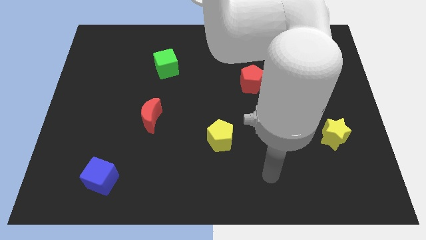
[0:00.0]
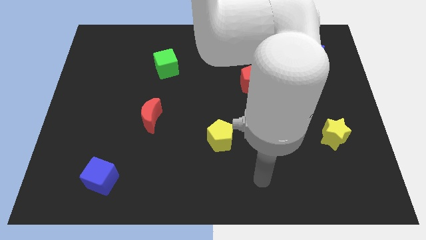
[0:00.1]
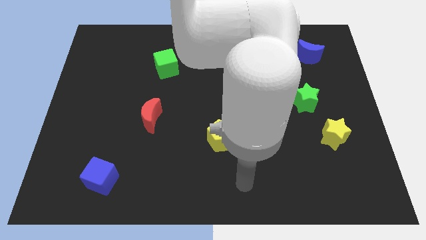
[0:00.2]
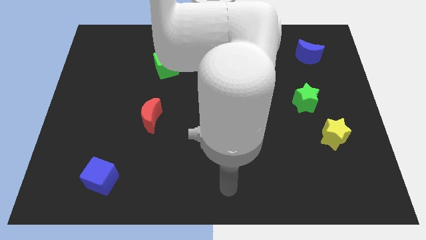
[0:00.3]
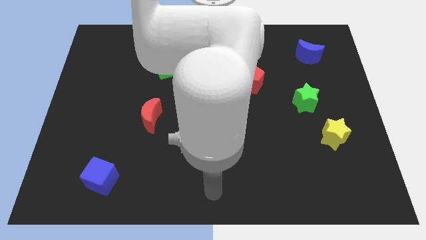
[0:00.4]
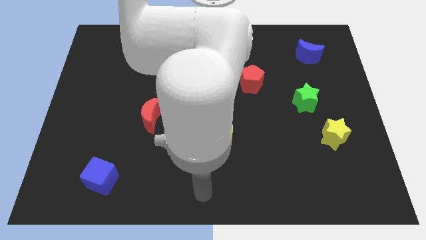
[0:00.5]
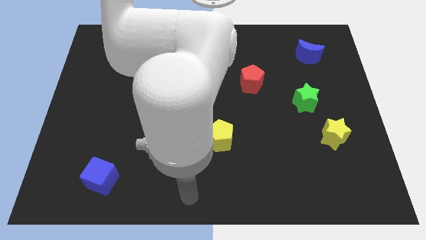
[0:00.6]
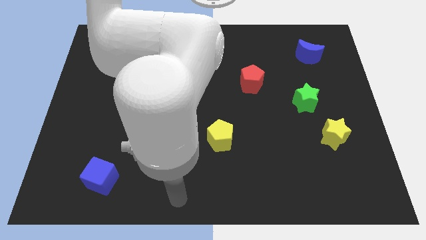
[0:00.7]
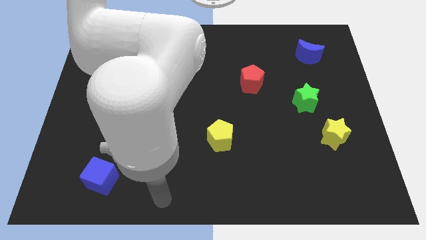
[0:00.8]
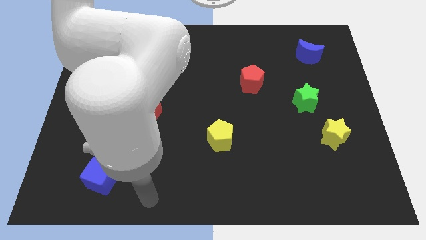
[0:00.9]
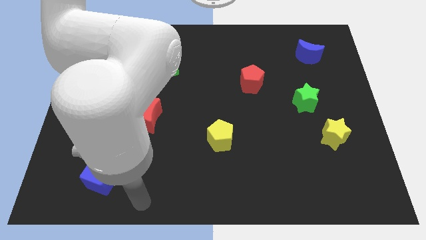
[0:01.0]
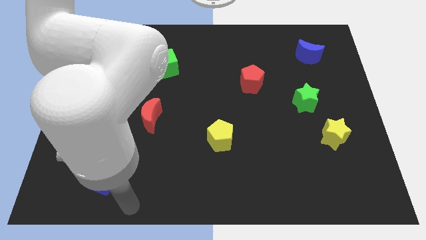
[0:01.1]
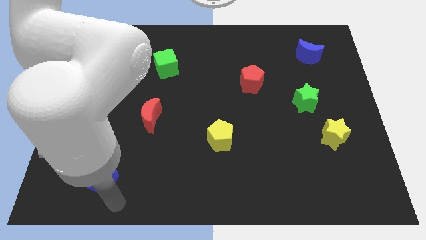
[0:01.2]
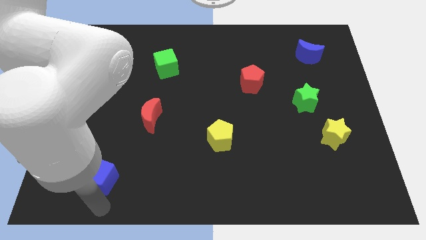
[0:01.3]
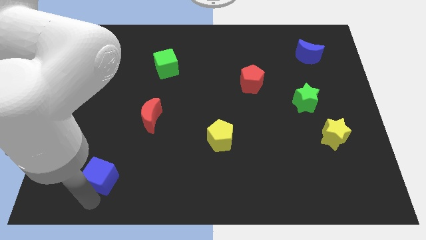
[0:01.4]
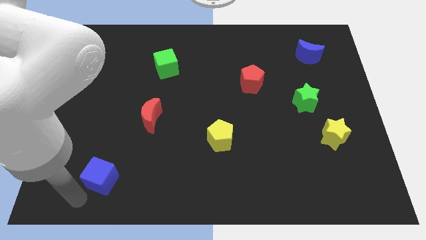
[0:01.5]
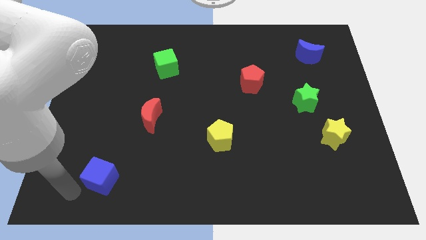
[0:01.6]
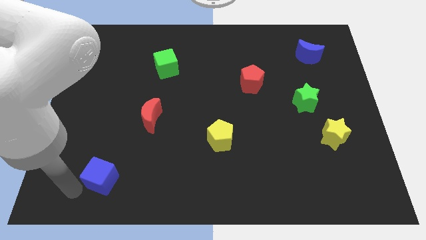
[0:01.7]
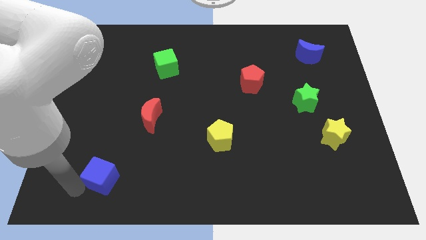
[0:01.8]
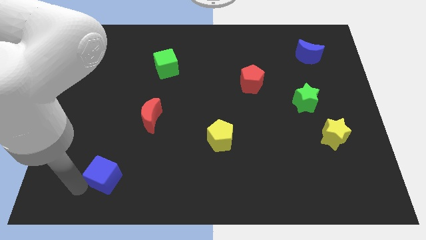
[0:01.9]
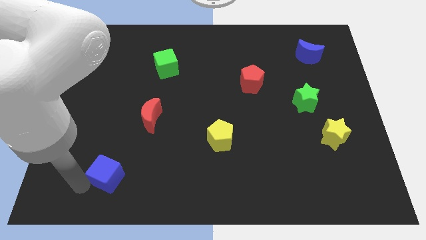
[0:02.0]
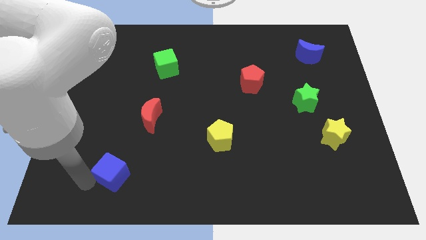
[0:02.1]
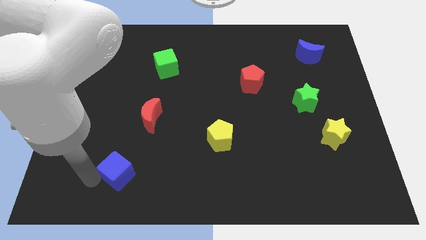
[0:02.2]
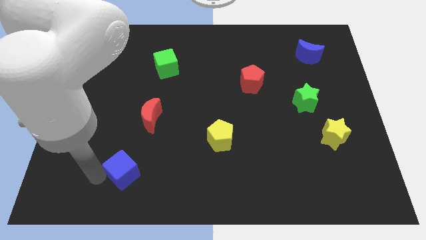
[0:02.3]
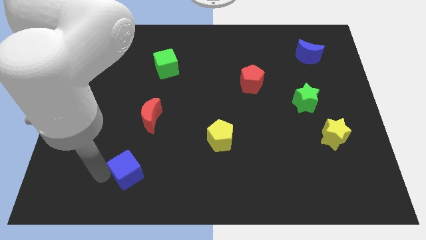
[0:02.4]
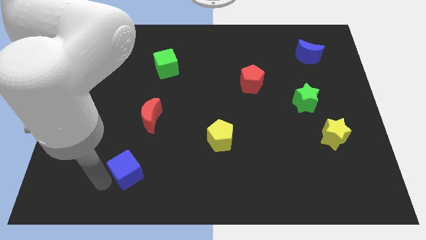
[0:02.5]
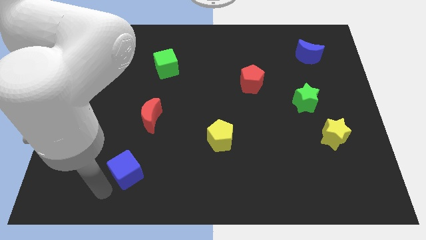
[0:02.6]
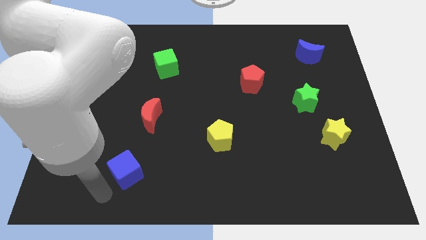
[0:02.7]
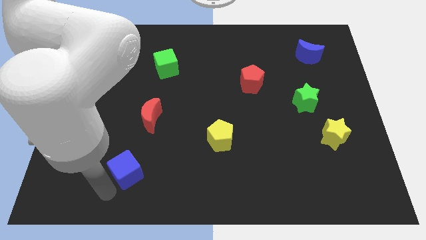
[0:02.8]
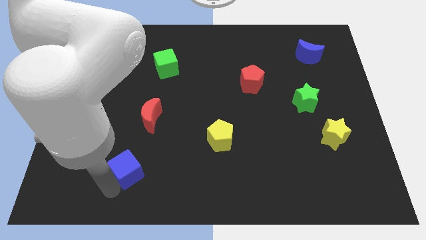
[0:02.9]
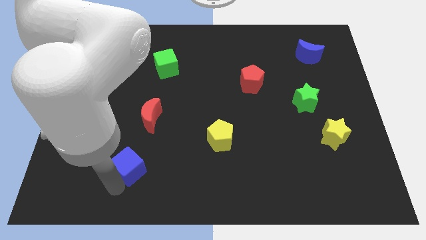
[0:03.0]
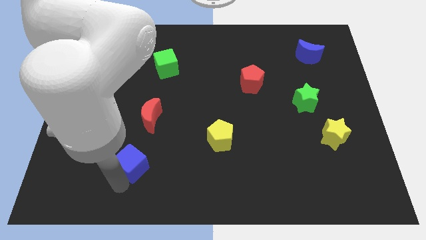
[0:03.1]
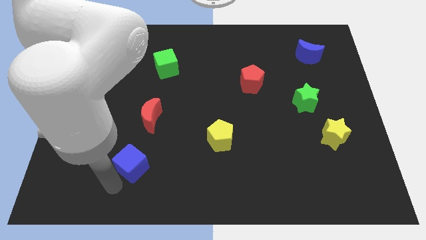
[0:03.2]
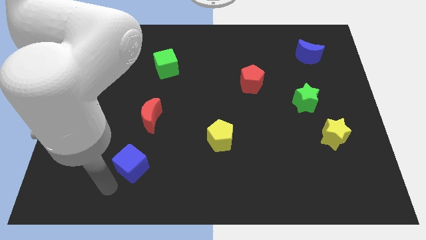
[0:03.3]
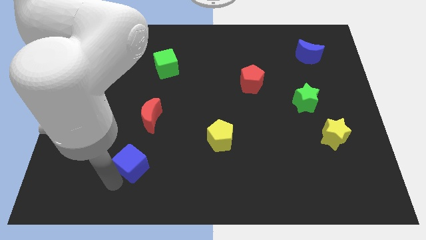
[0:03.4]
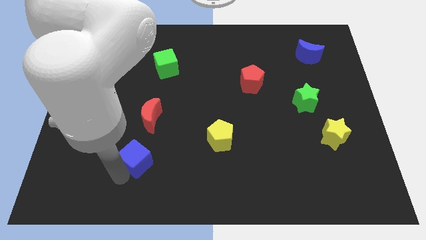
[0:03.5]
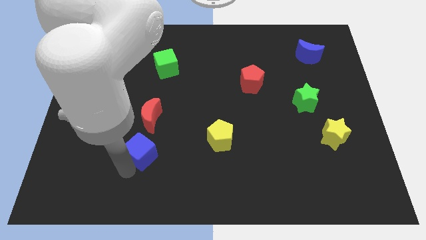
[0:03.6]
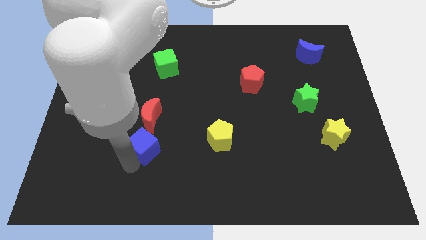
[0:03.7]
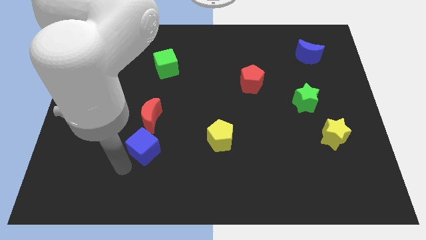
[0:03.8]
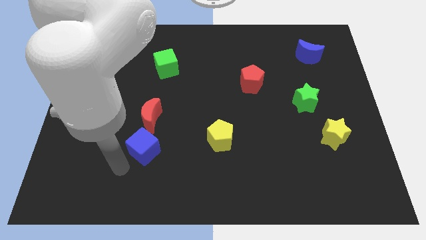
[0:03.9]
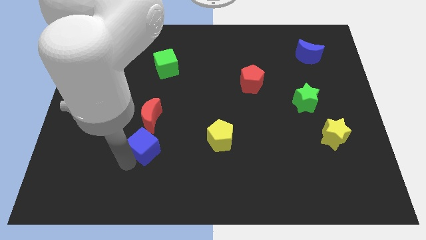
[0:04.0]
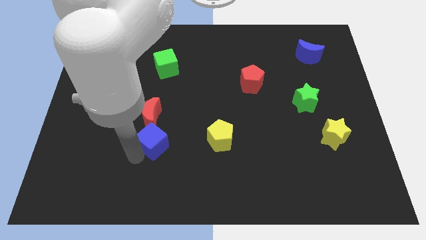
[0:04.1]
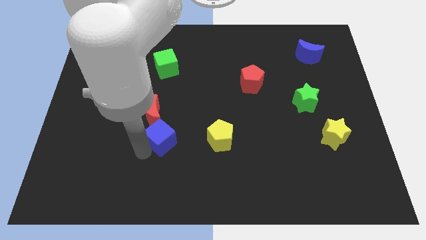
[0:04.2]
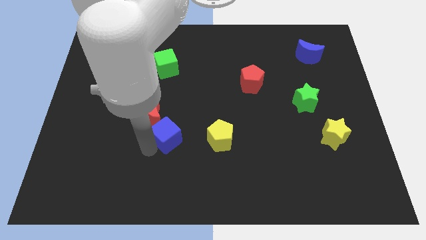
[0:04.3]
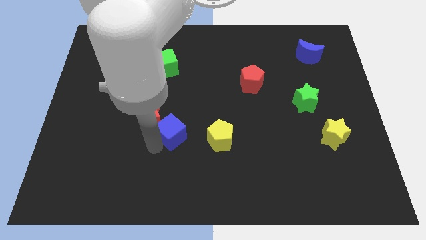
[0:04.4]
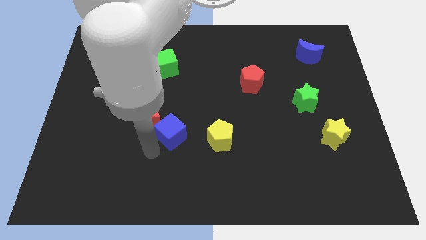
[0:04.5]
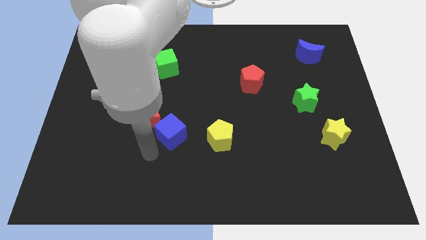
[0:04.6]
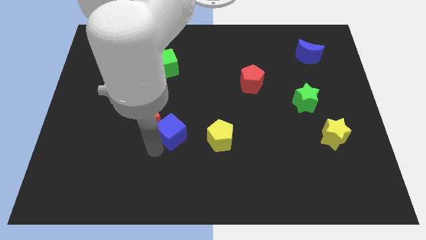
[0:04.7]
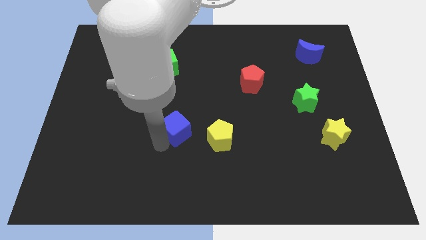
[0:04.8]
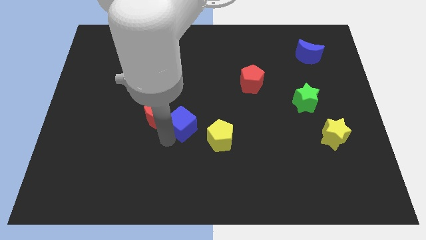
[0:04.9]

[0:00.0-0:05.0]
slide the blue cube up and then to the right

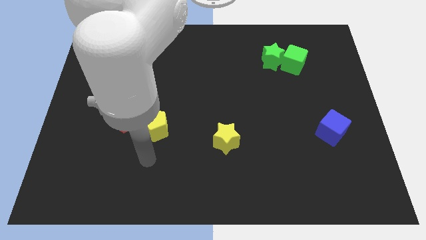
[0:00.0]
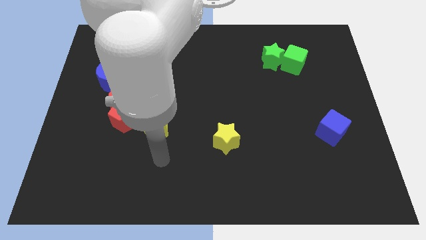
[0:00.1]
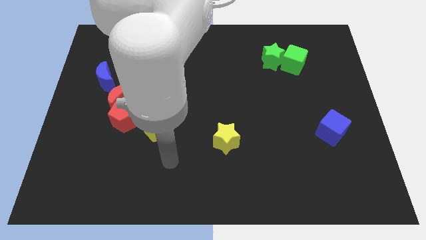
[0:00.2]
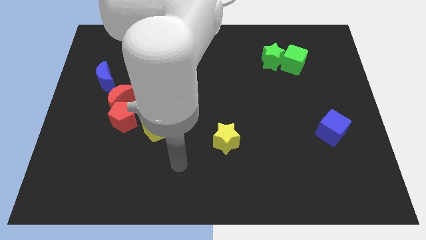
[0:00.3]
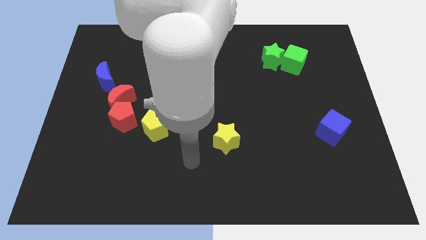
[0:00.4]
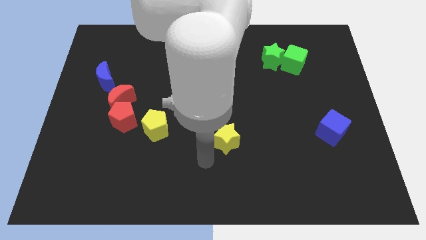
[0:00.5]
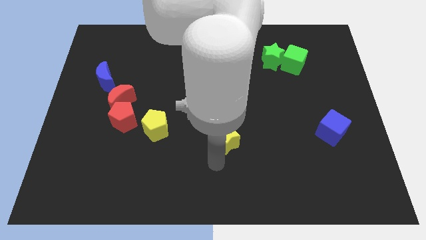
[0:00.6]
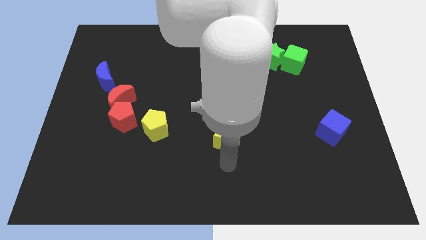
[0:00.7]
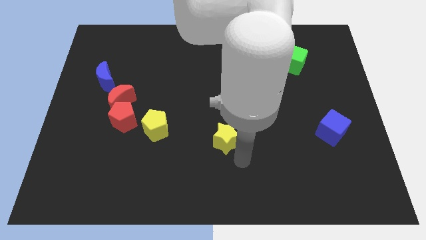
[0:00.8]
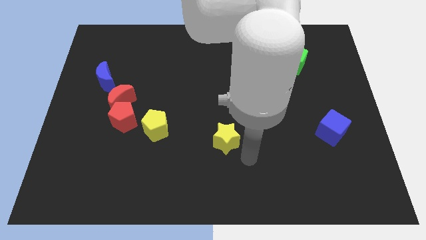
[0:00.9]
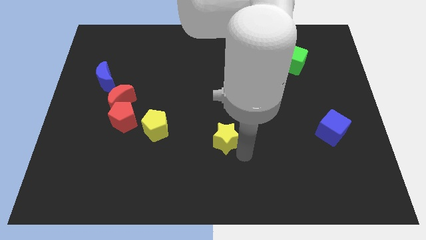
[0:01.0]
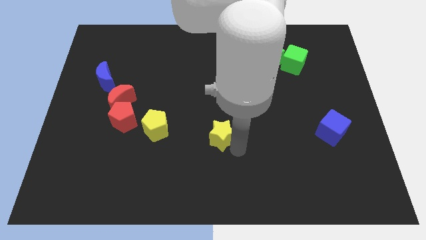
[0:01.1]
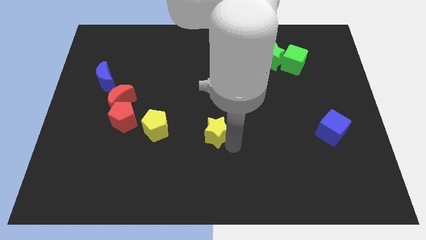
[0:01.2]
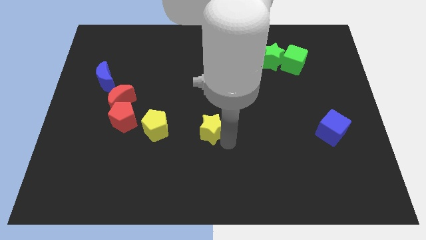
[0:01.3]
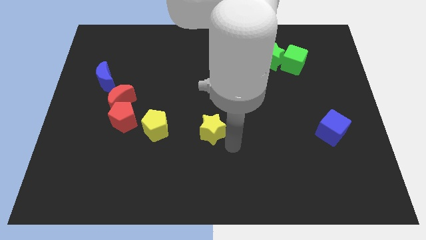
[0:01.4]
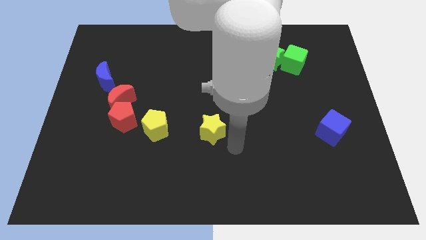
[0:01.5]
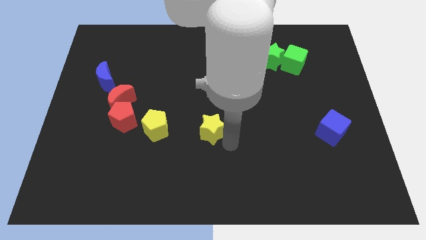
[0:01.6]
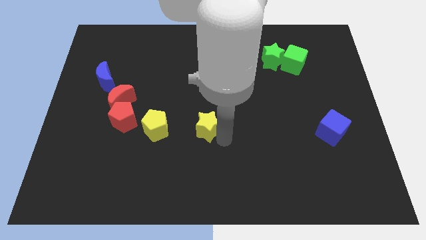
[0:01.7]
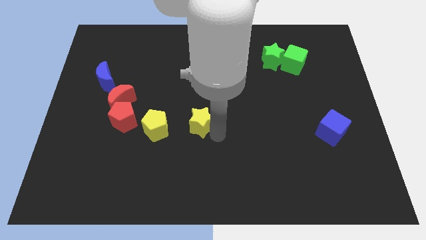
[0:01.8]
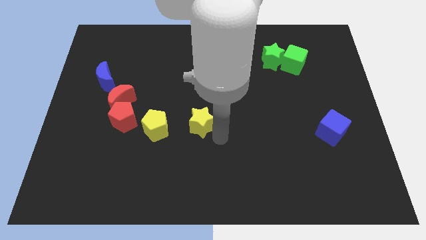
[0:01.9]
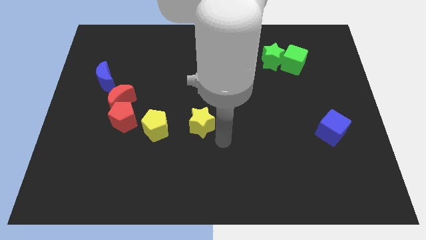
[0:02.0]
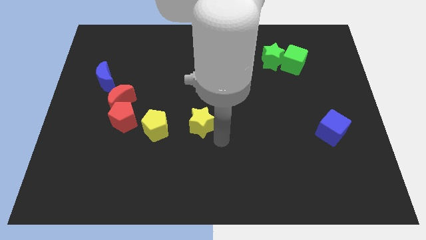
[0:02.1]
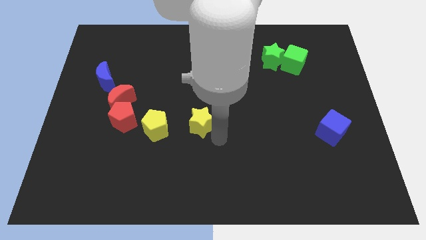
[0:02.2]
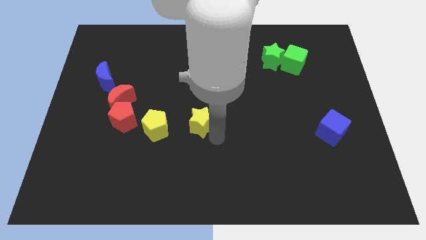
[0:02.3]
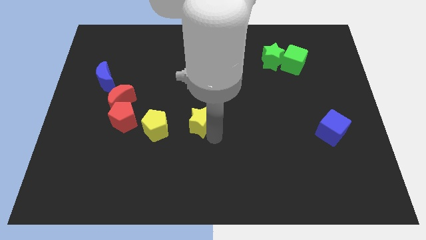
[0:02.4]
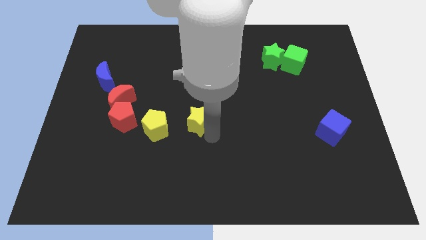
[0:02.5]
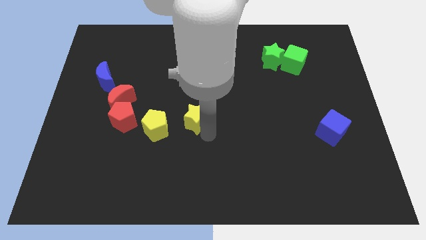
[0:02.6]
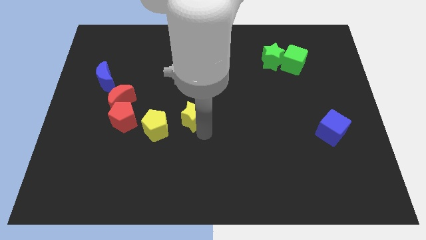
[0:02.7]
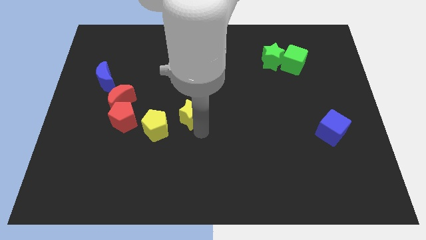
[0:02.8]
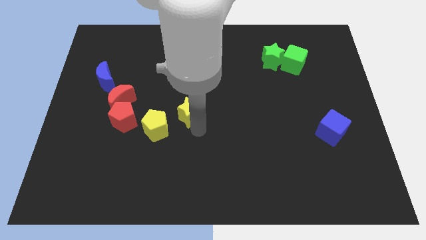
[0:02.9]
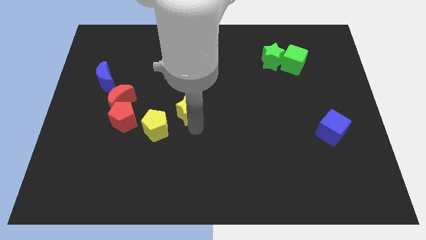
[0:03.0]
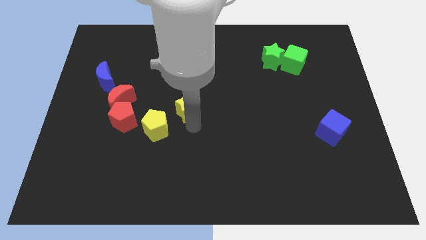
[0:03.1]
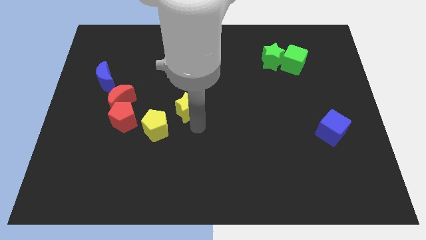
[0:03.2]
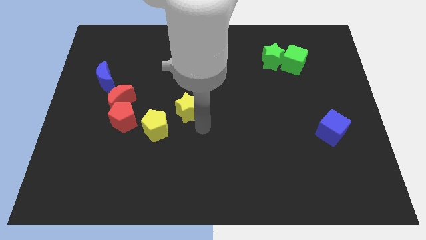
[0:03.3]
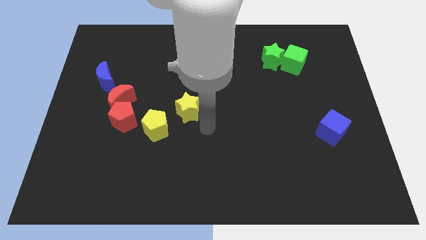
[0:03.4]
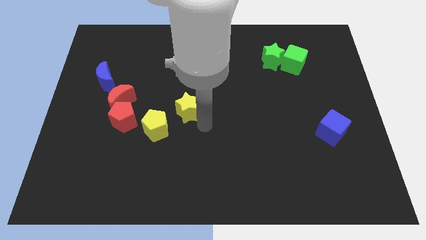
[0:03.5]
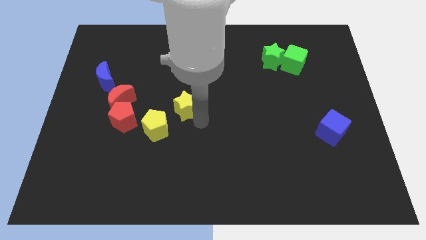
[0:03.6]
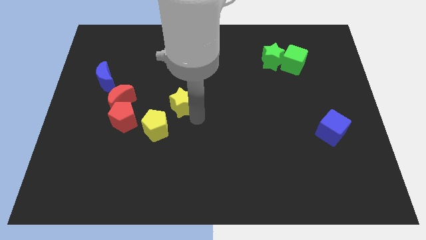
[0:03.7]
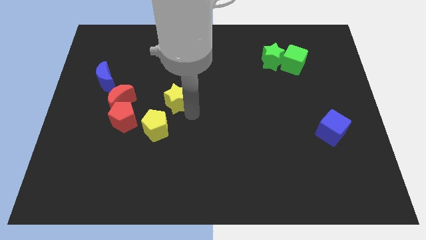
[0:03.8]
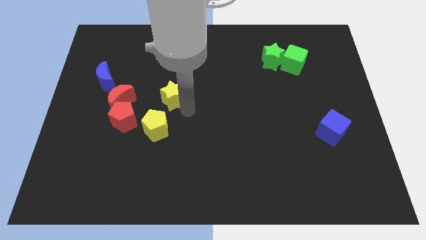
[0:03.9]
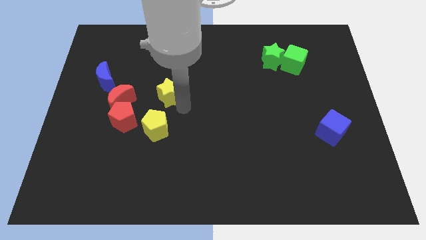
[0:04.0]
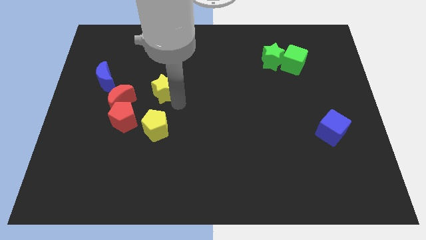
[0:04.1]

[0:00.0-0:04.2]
push the yellow star upwards and left
